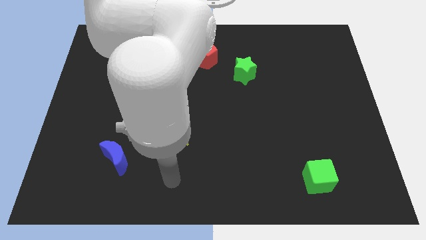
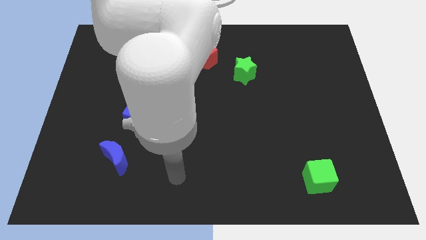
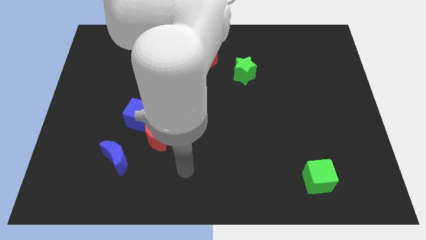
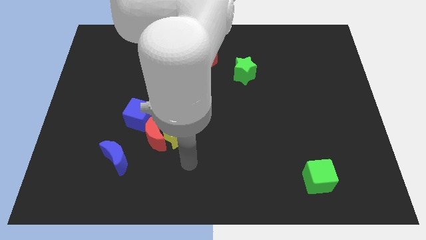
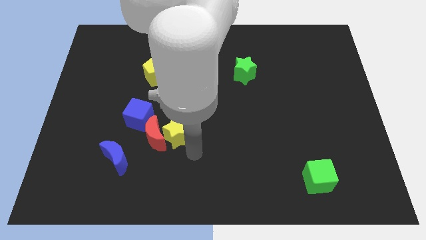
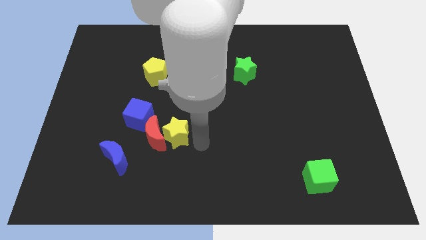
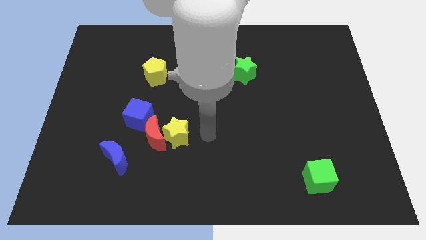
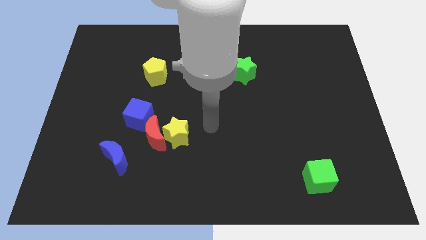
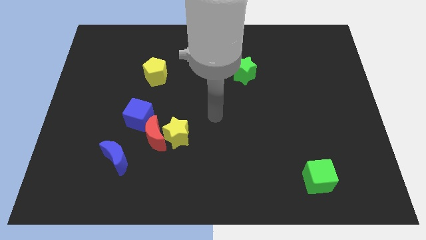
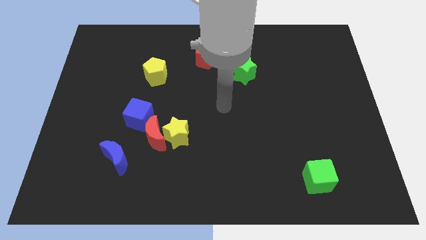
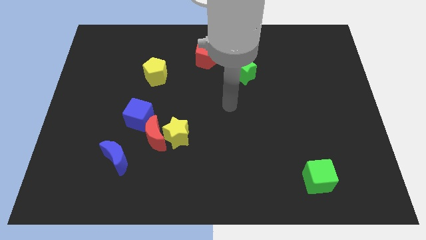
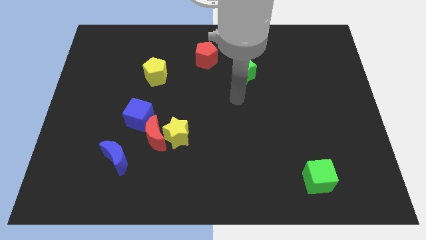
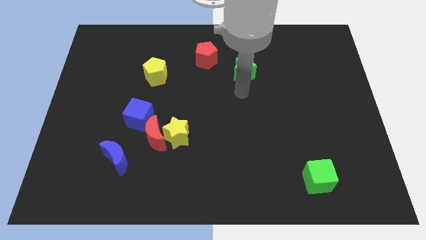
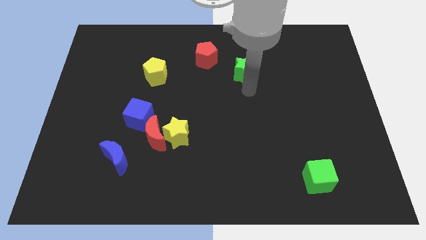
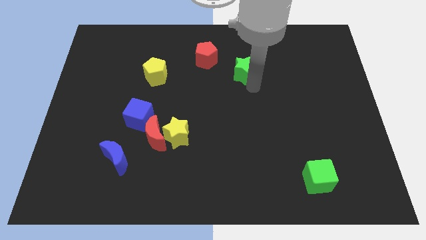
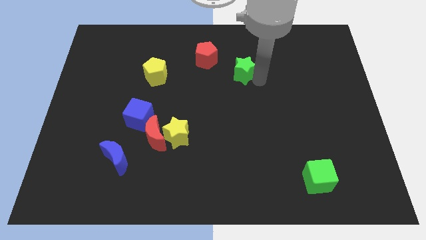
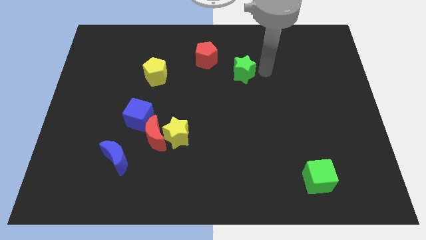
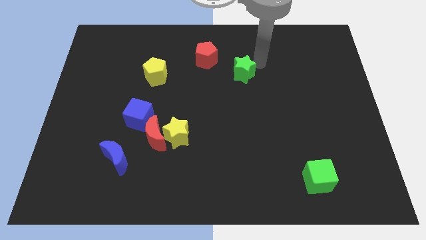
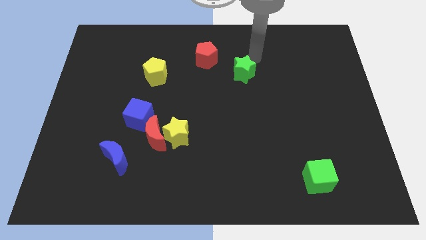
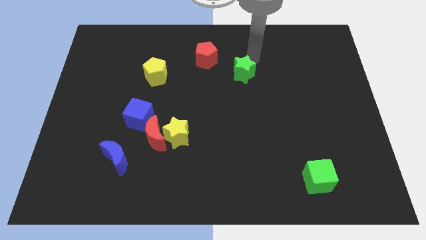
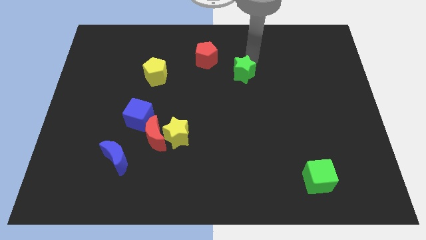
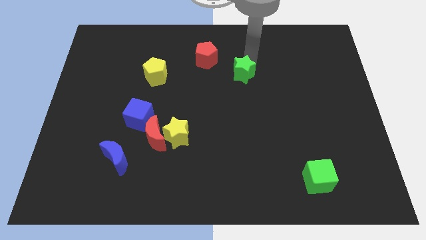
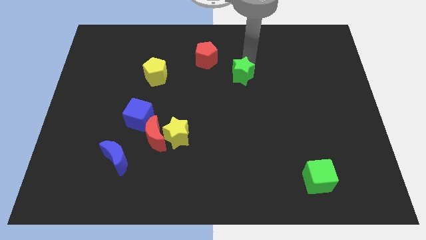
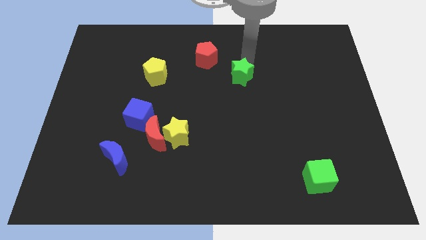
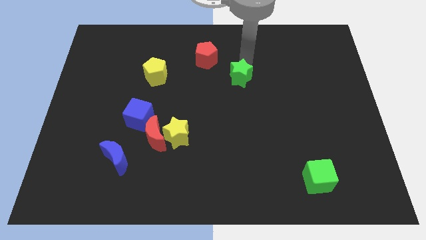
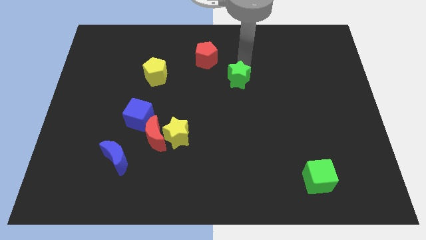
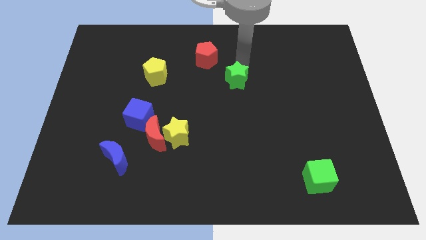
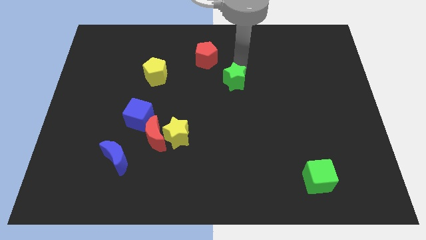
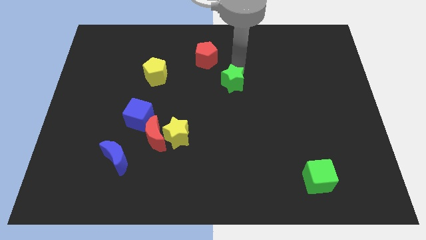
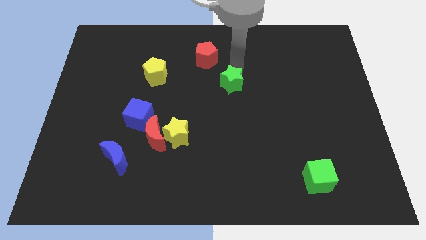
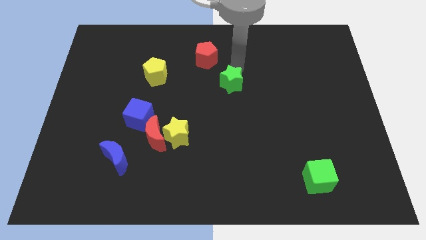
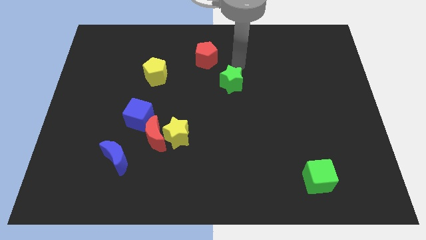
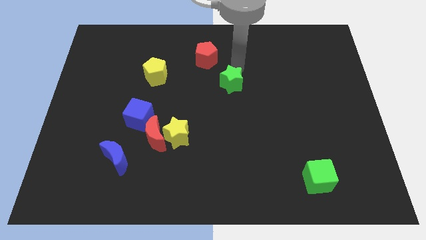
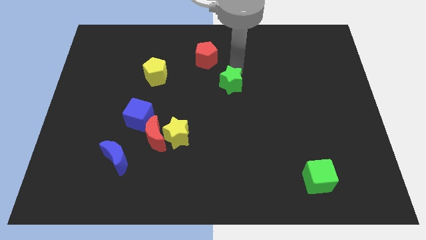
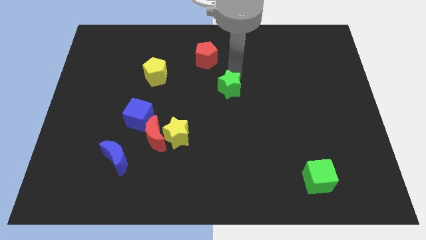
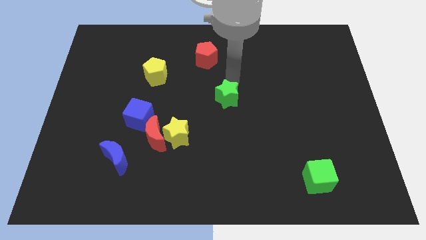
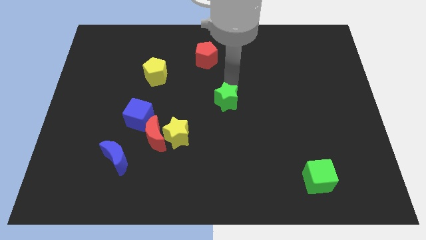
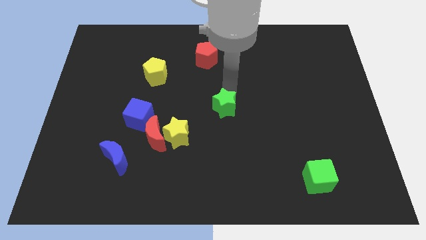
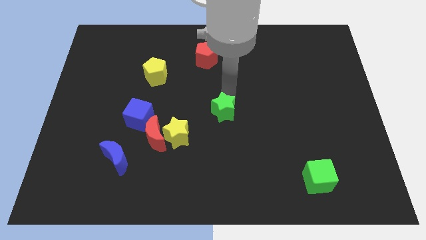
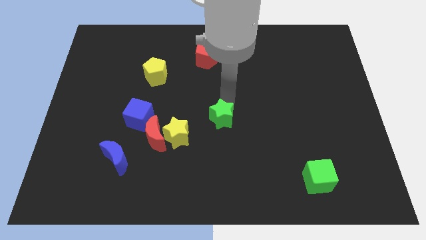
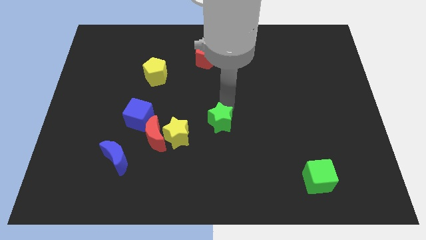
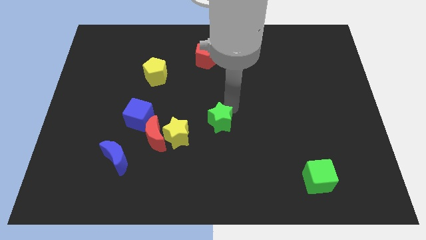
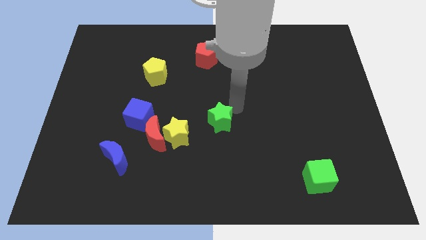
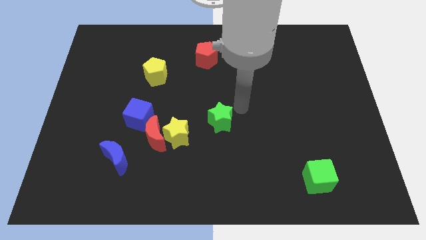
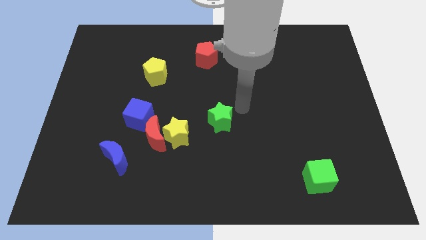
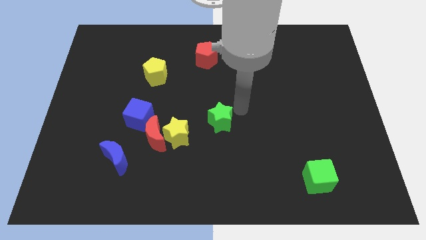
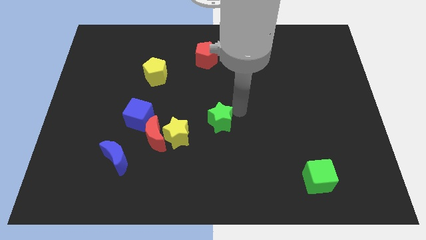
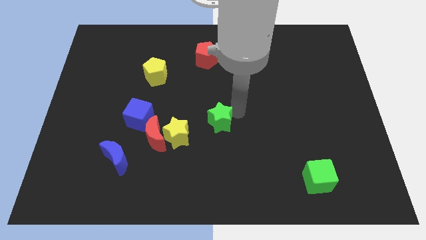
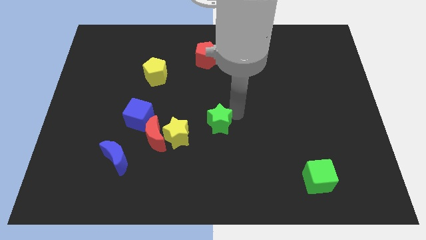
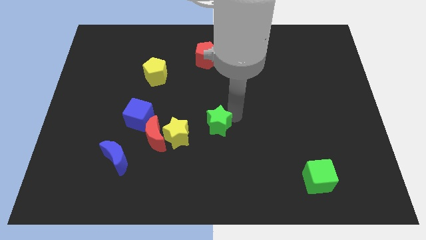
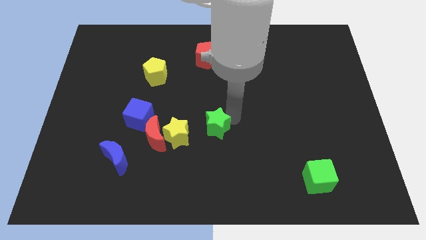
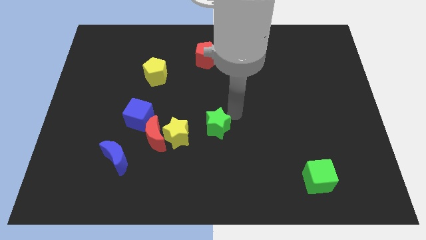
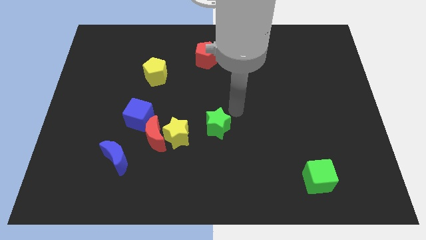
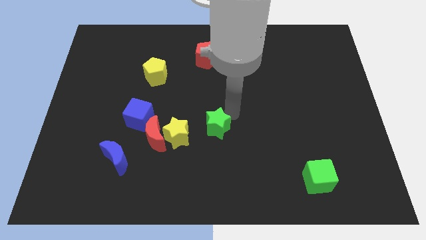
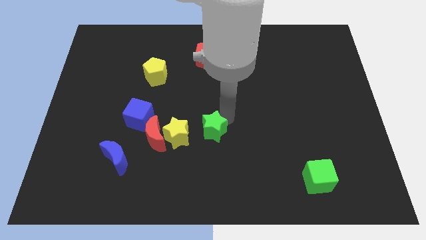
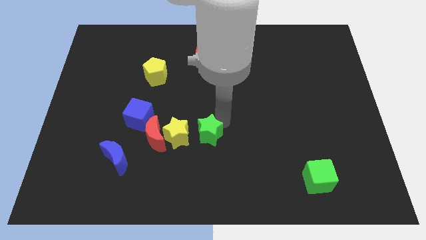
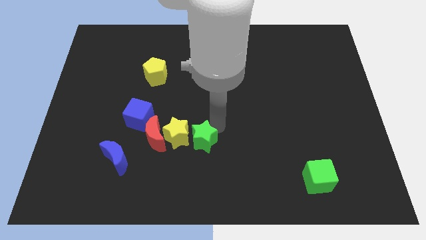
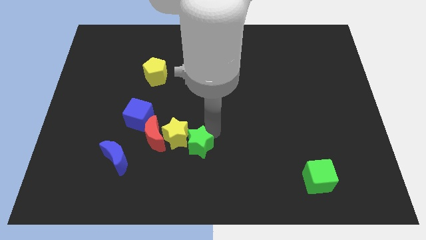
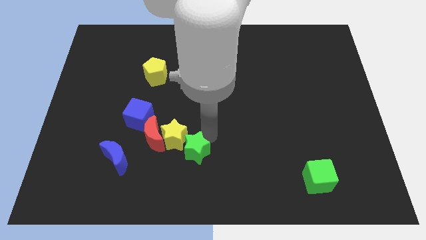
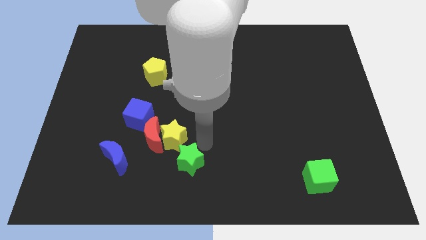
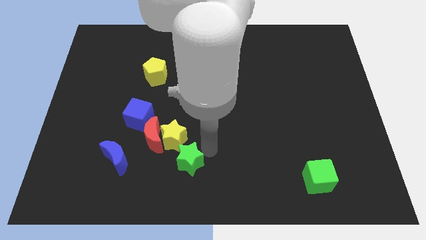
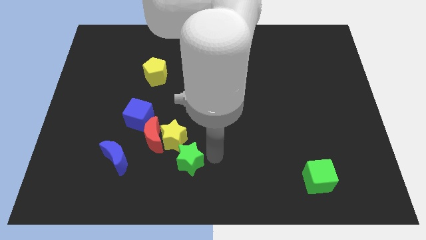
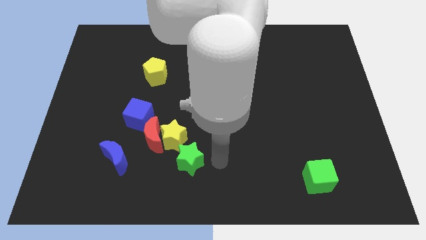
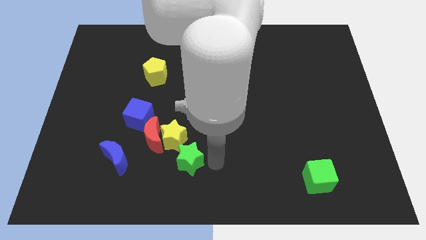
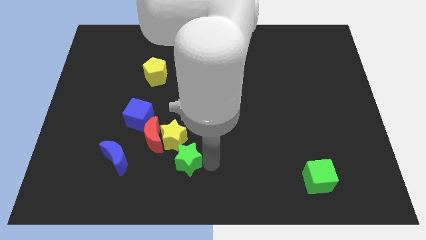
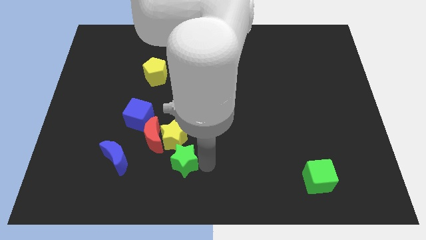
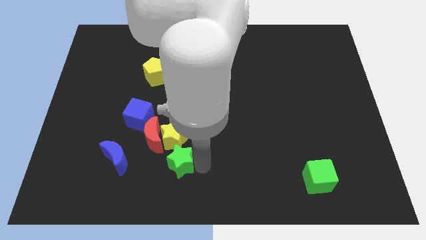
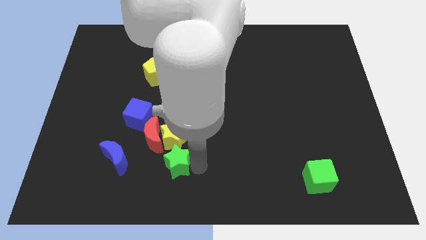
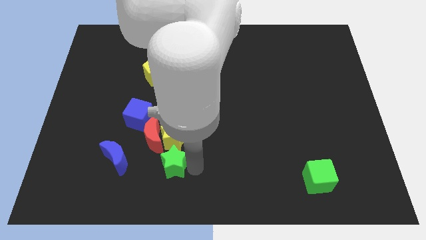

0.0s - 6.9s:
push the green star diagonally down and to the left of the yellow star
